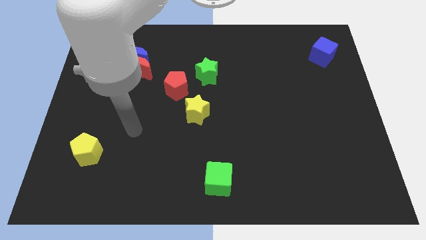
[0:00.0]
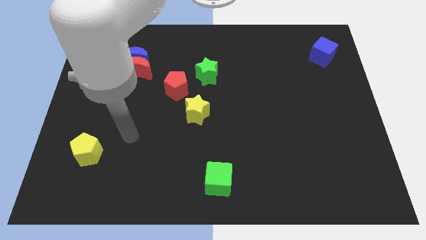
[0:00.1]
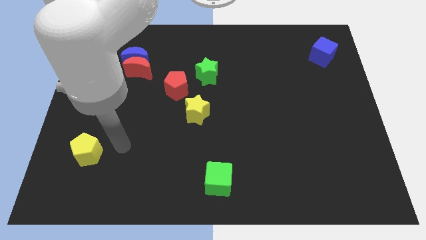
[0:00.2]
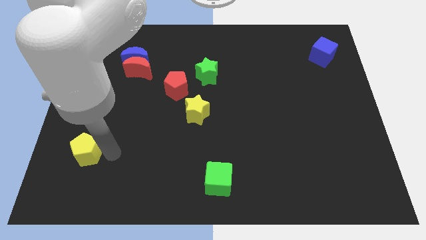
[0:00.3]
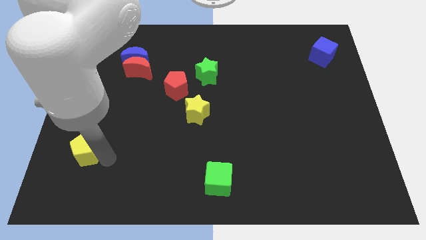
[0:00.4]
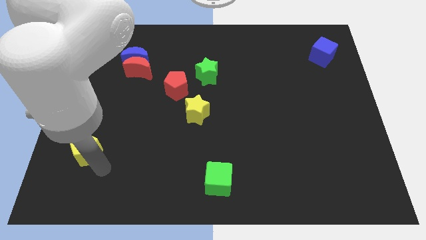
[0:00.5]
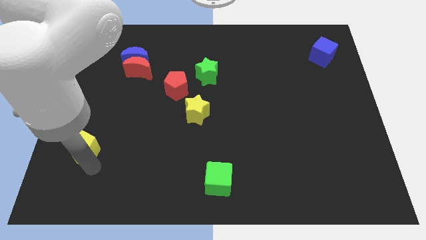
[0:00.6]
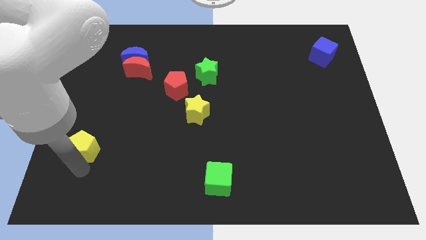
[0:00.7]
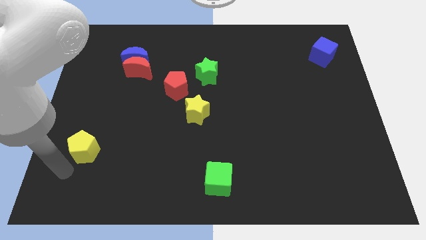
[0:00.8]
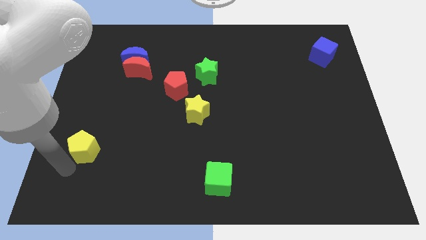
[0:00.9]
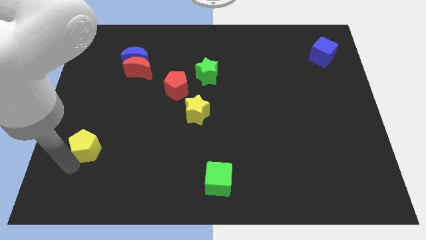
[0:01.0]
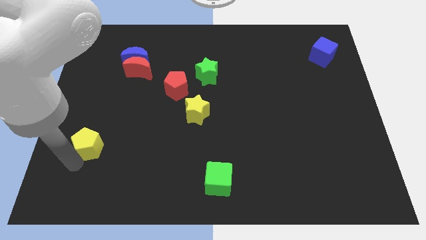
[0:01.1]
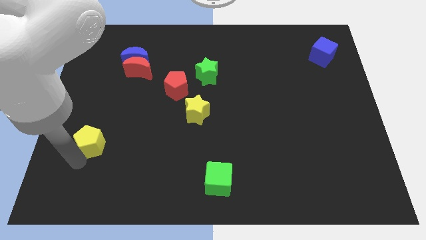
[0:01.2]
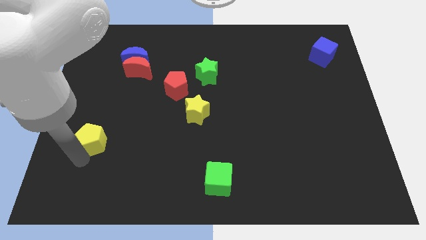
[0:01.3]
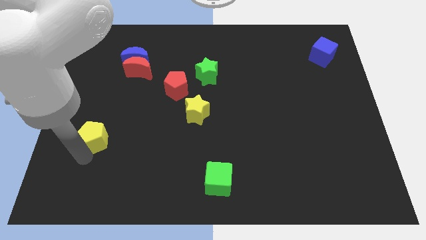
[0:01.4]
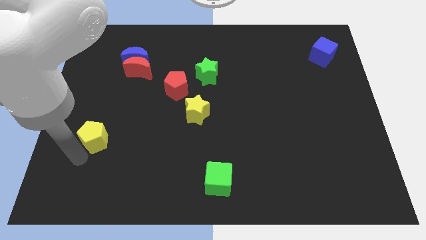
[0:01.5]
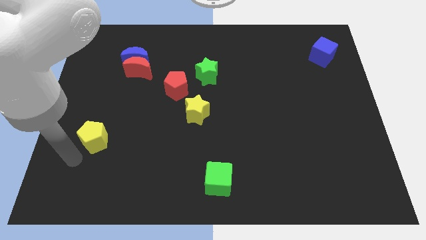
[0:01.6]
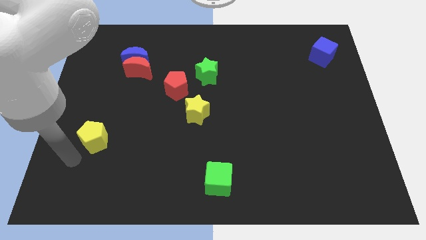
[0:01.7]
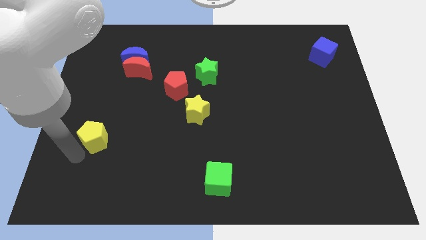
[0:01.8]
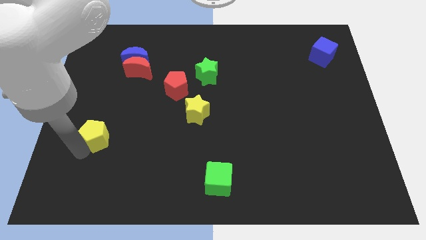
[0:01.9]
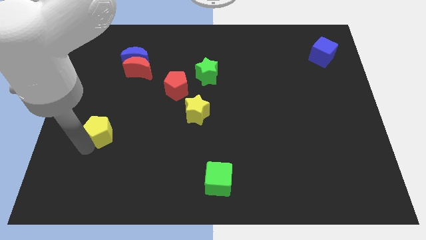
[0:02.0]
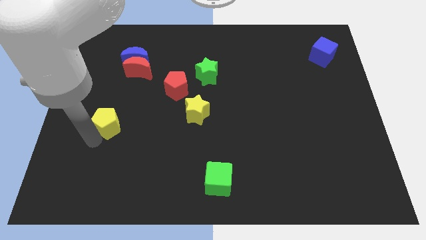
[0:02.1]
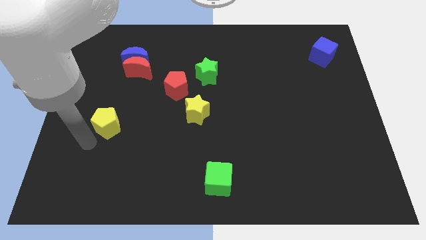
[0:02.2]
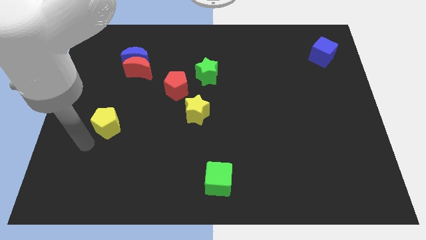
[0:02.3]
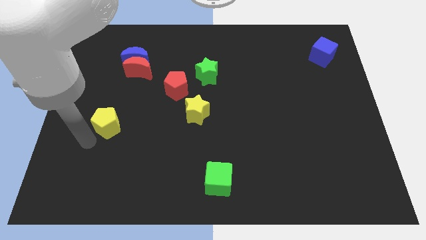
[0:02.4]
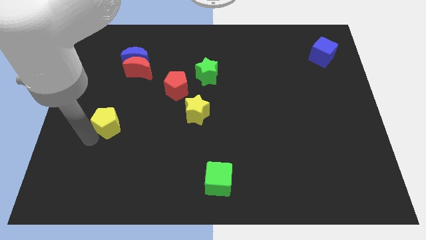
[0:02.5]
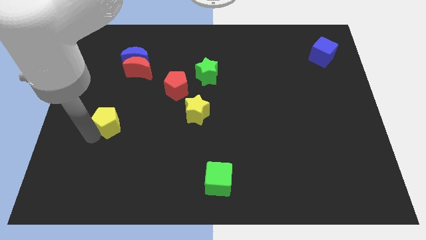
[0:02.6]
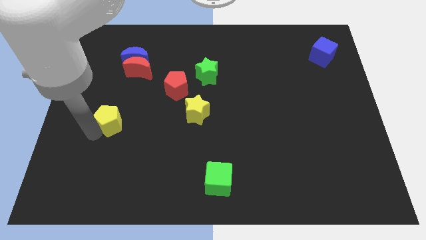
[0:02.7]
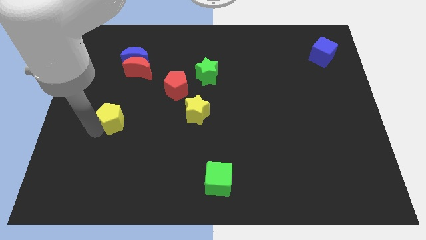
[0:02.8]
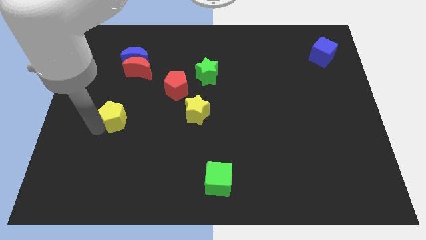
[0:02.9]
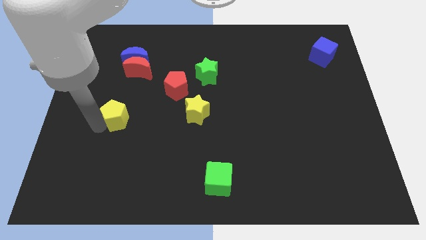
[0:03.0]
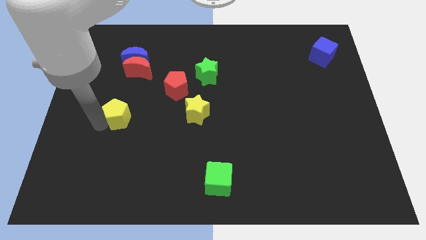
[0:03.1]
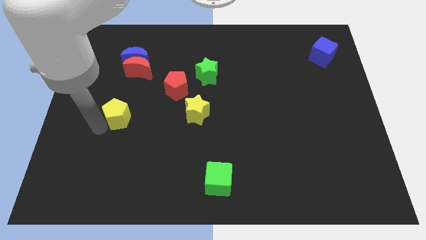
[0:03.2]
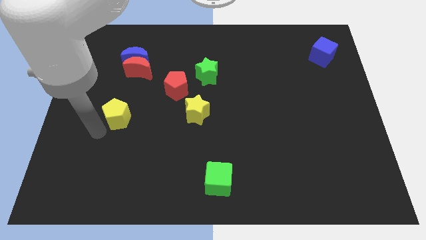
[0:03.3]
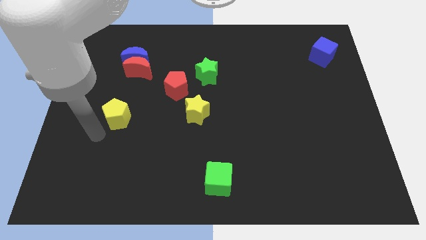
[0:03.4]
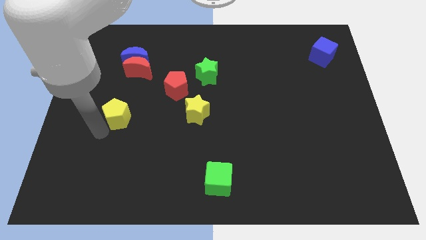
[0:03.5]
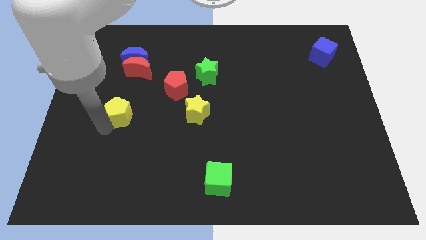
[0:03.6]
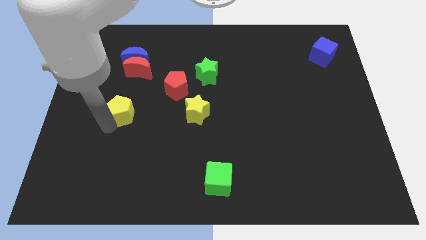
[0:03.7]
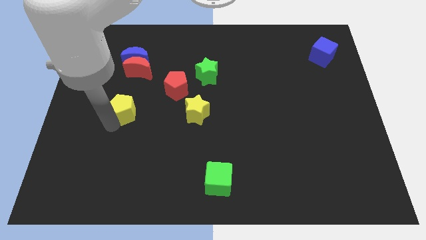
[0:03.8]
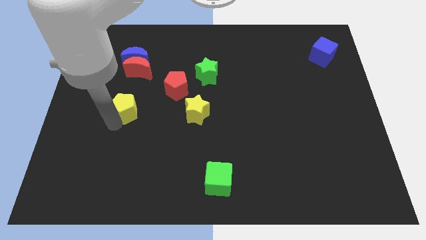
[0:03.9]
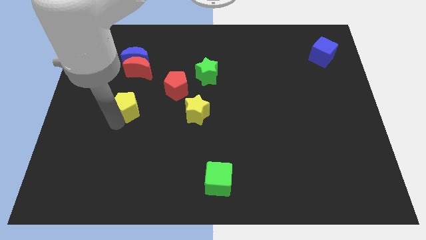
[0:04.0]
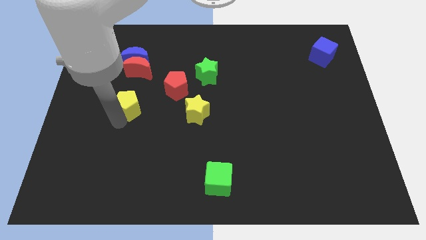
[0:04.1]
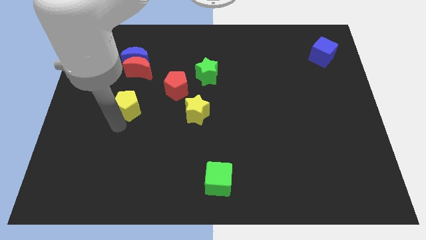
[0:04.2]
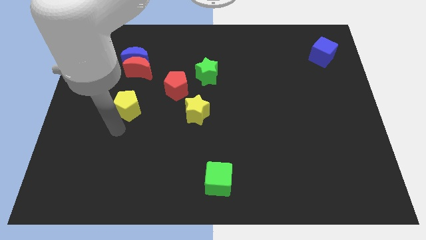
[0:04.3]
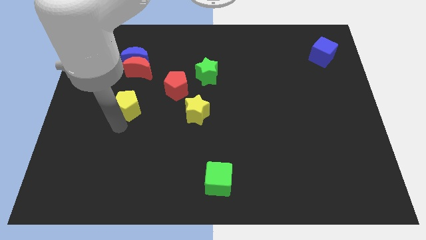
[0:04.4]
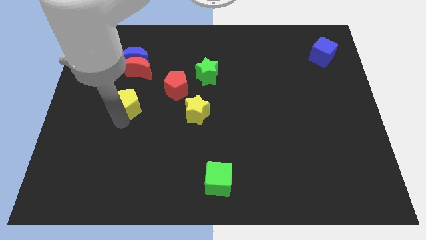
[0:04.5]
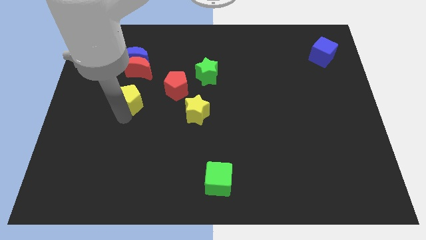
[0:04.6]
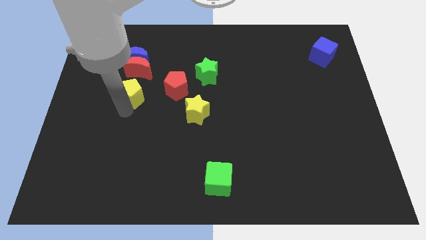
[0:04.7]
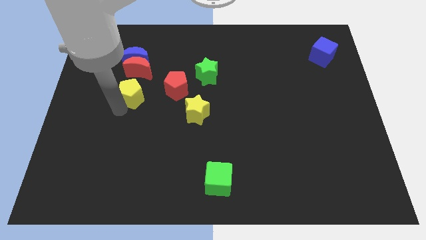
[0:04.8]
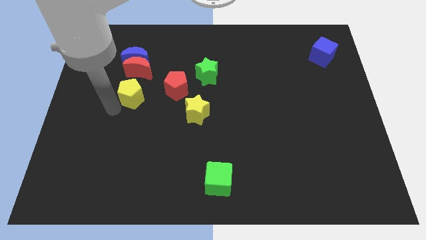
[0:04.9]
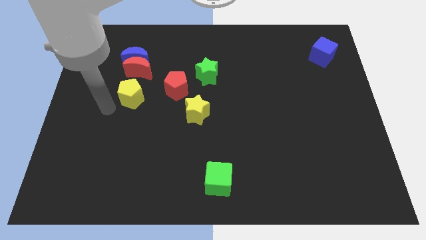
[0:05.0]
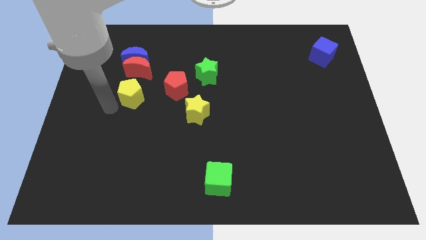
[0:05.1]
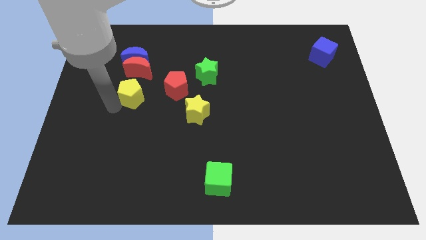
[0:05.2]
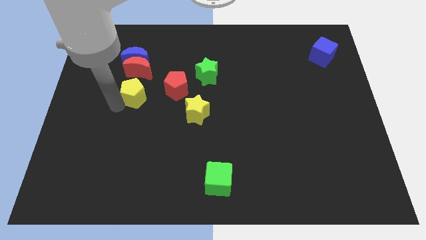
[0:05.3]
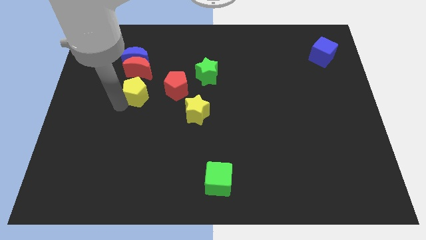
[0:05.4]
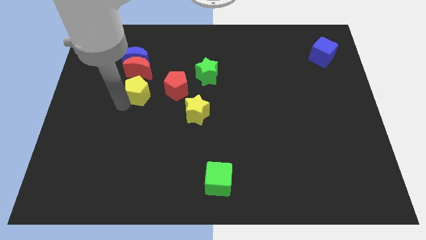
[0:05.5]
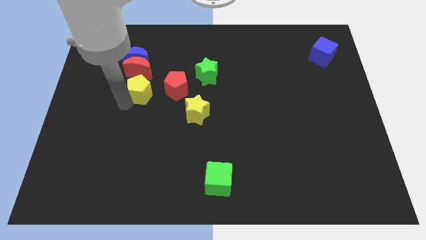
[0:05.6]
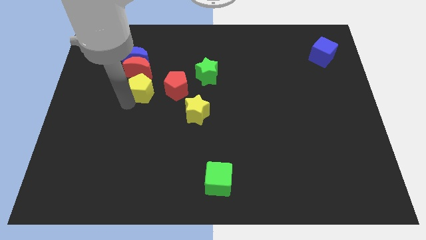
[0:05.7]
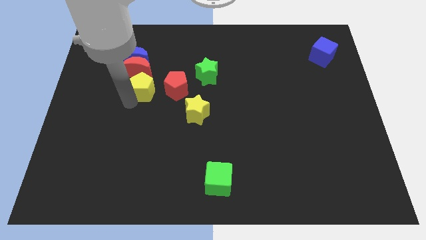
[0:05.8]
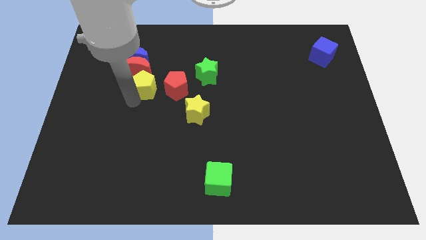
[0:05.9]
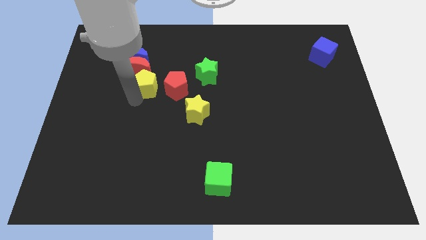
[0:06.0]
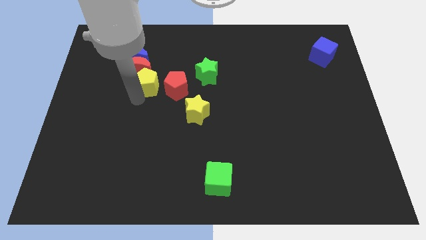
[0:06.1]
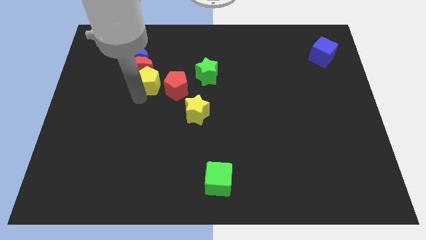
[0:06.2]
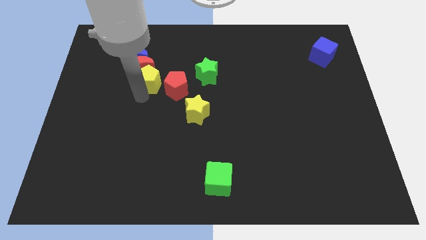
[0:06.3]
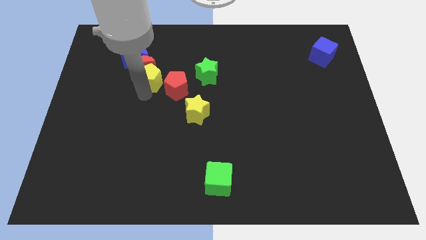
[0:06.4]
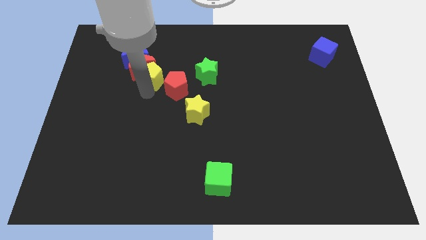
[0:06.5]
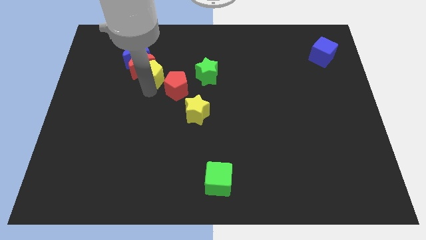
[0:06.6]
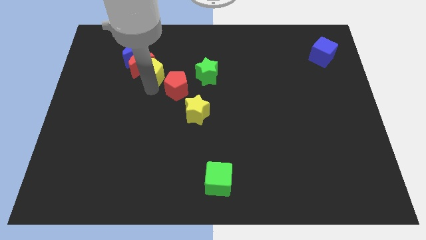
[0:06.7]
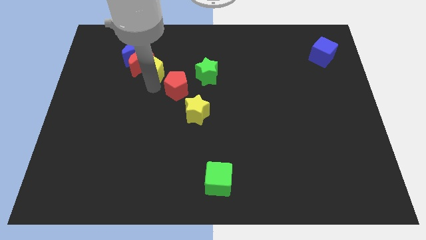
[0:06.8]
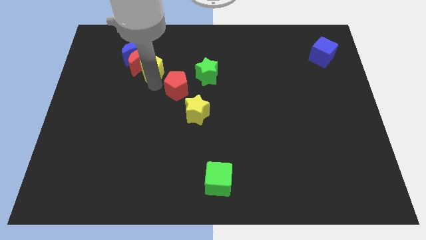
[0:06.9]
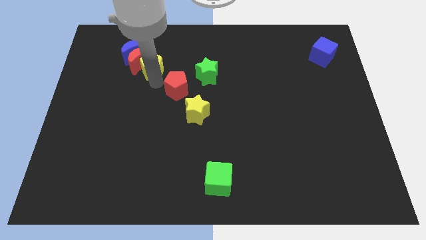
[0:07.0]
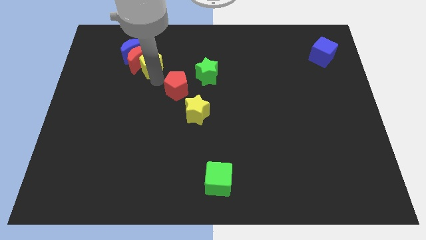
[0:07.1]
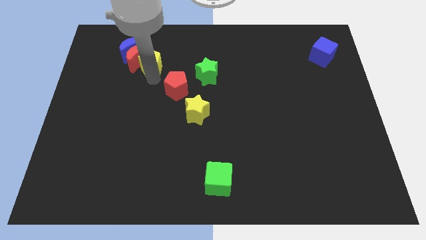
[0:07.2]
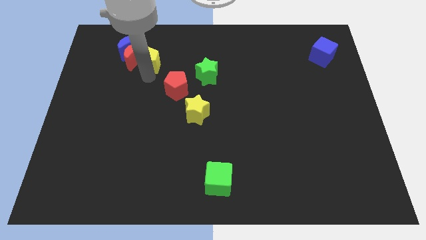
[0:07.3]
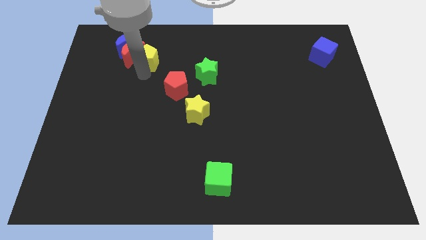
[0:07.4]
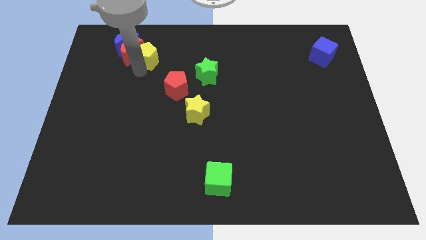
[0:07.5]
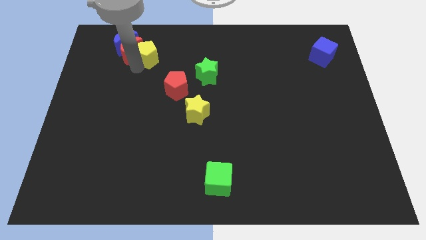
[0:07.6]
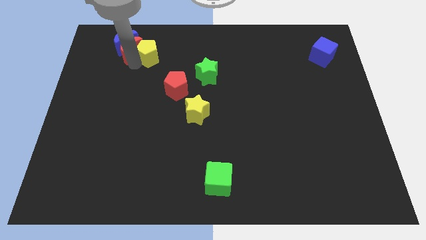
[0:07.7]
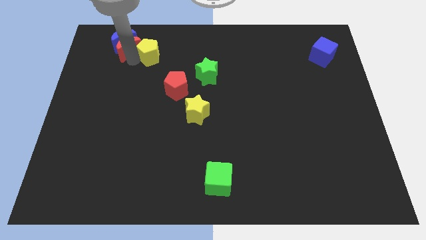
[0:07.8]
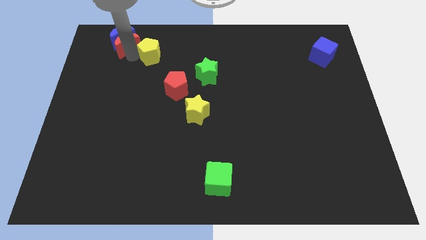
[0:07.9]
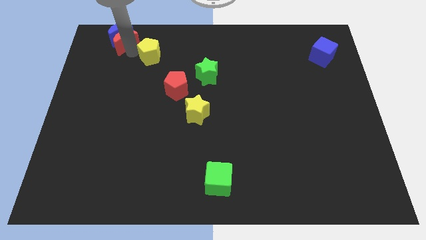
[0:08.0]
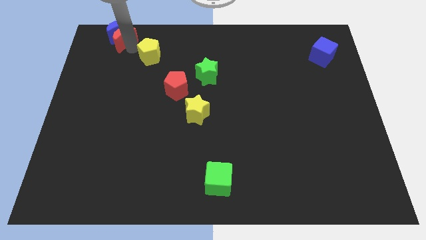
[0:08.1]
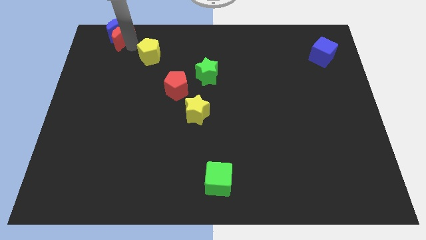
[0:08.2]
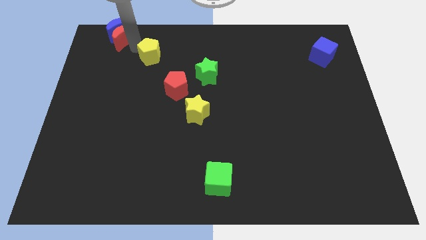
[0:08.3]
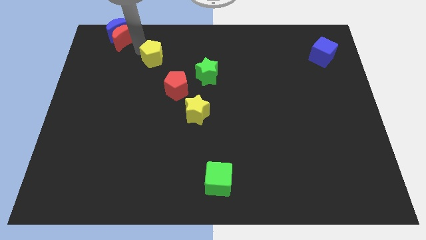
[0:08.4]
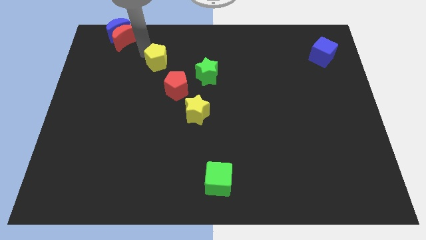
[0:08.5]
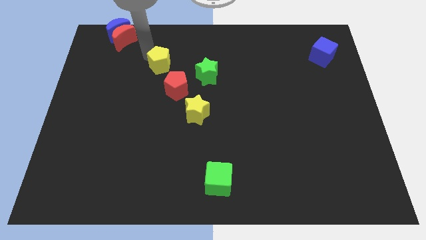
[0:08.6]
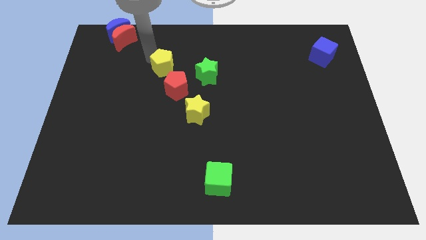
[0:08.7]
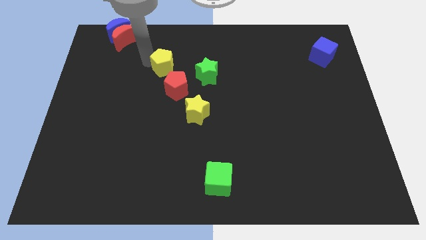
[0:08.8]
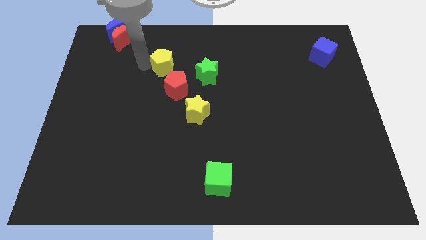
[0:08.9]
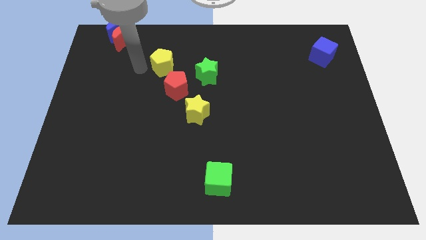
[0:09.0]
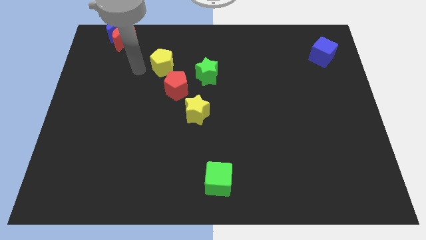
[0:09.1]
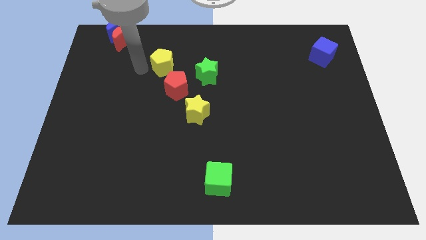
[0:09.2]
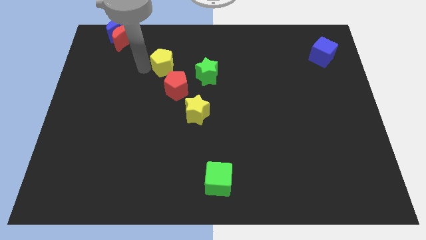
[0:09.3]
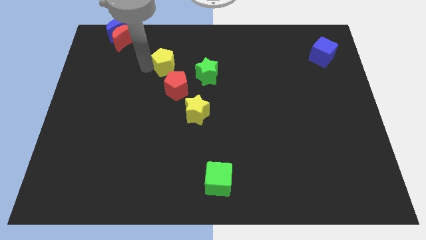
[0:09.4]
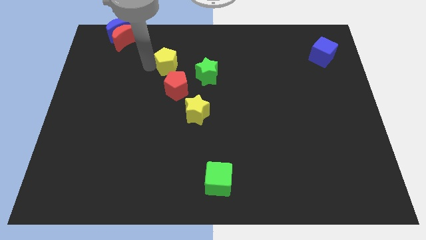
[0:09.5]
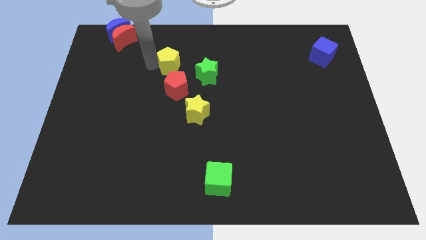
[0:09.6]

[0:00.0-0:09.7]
put the yellow pentagon to the top left of the green star
